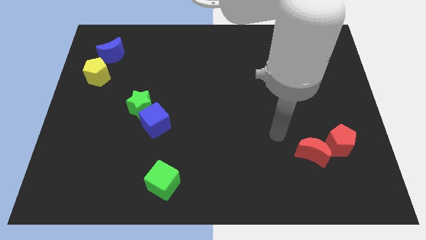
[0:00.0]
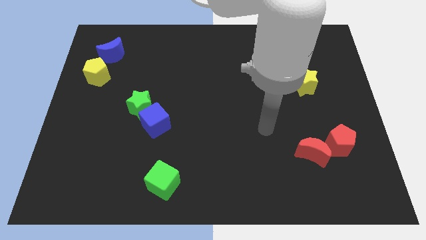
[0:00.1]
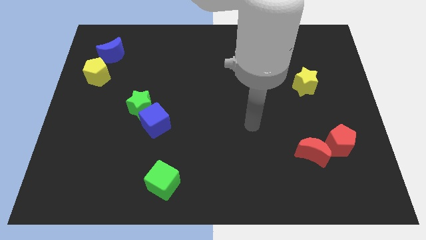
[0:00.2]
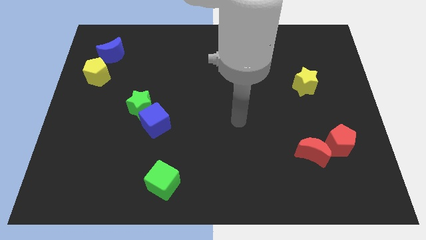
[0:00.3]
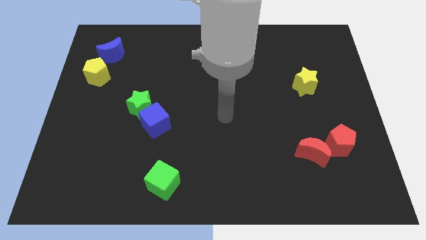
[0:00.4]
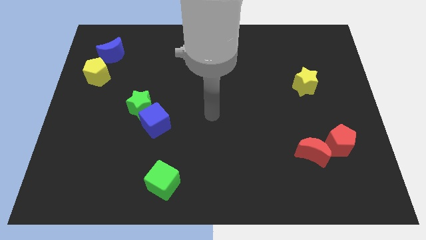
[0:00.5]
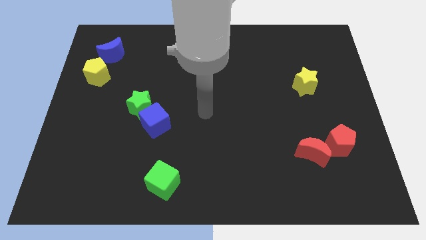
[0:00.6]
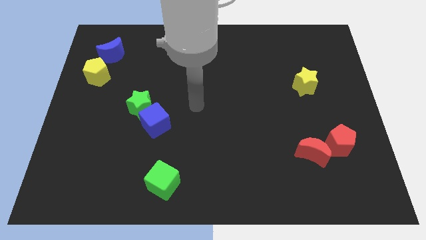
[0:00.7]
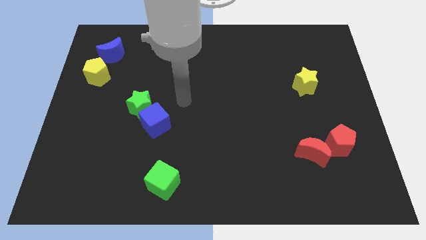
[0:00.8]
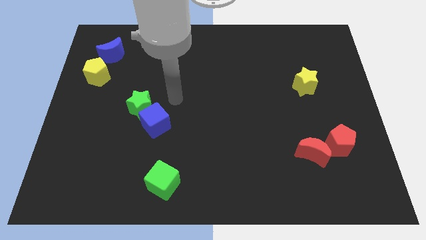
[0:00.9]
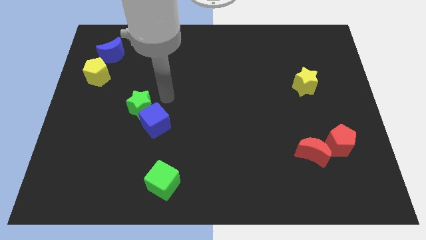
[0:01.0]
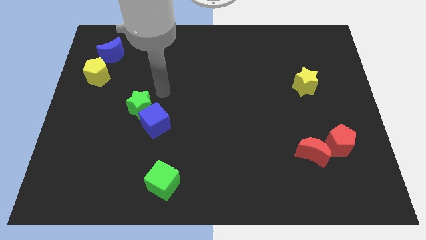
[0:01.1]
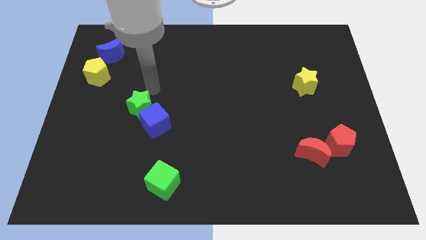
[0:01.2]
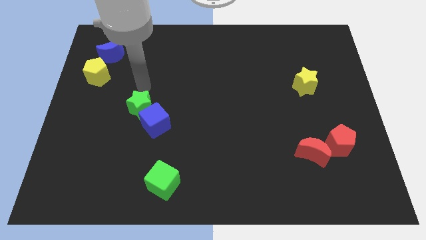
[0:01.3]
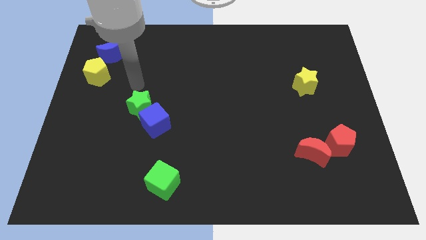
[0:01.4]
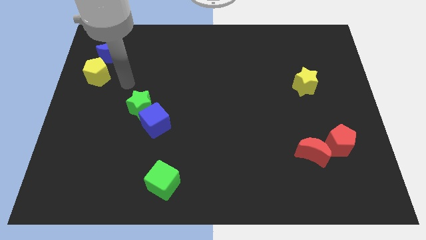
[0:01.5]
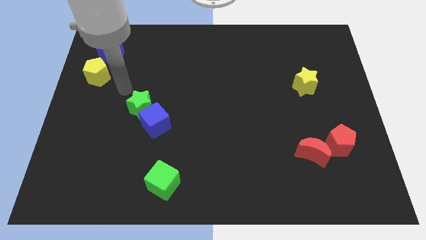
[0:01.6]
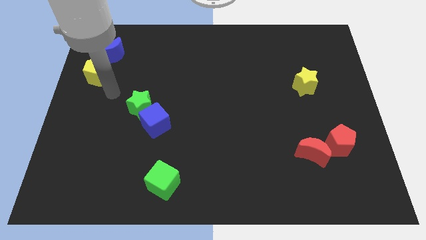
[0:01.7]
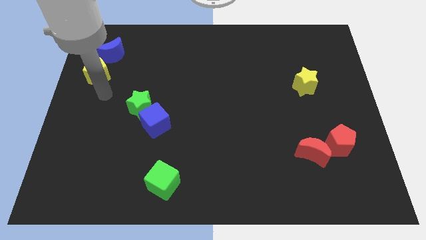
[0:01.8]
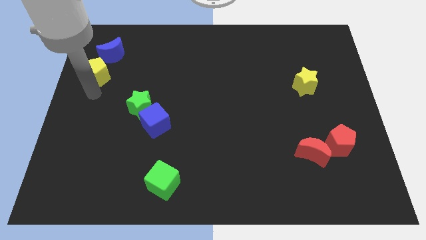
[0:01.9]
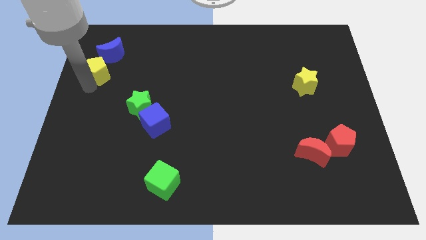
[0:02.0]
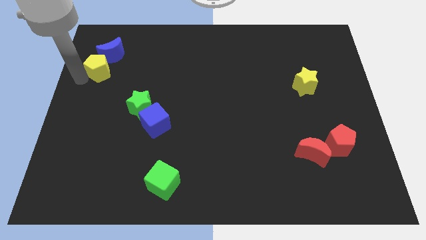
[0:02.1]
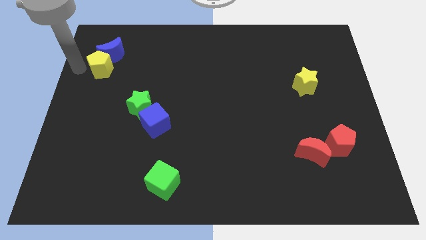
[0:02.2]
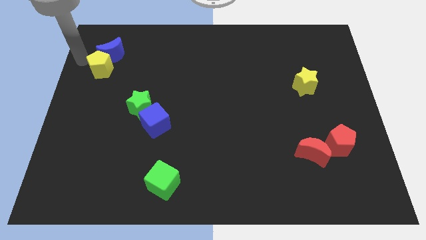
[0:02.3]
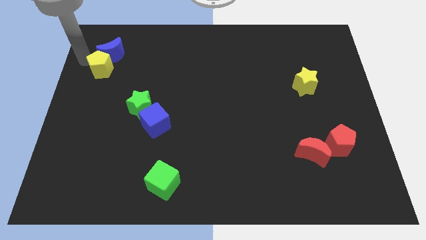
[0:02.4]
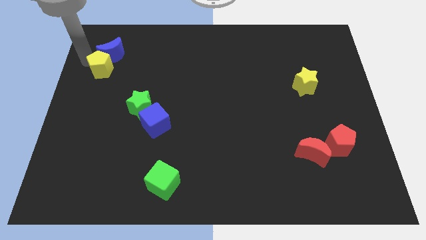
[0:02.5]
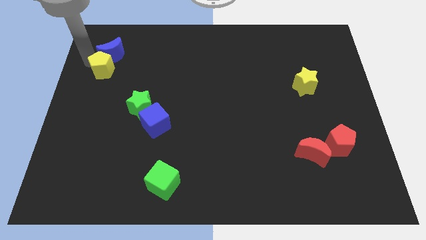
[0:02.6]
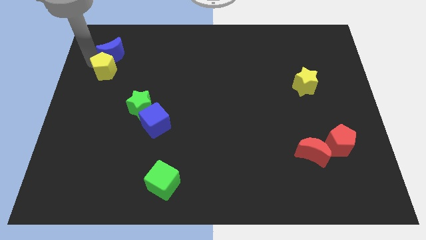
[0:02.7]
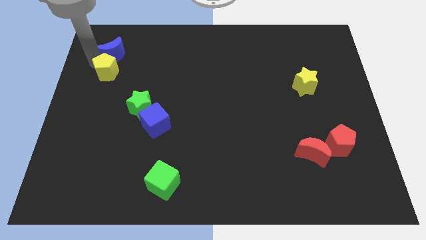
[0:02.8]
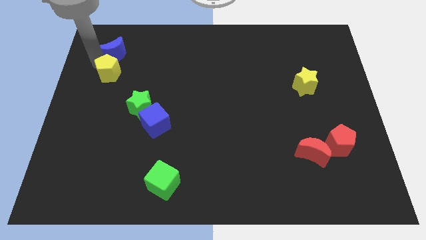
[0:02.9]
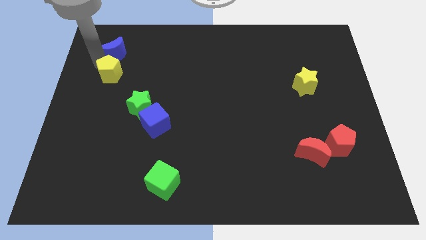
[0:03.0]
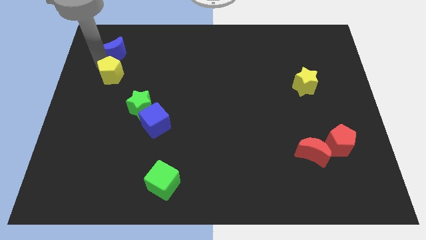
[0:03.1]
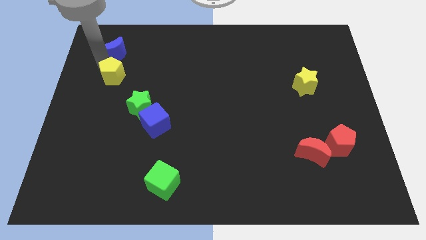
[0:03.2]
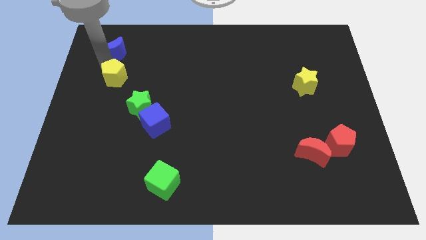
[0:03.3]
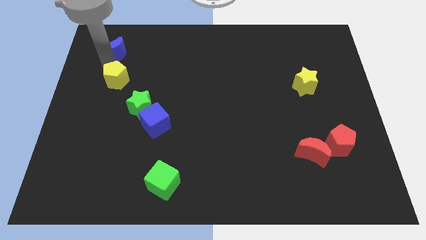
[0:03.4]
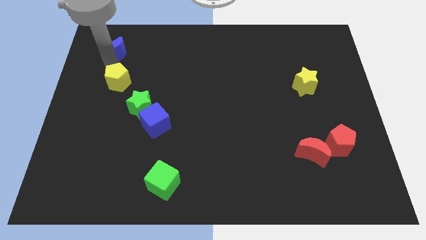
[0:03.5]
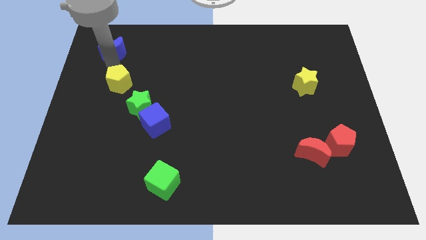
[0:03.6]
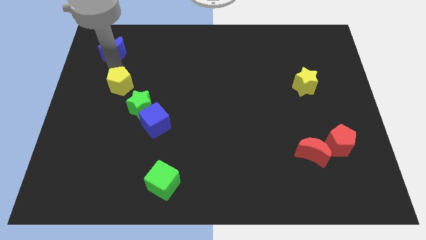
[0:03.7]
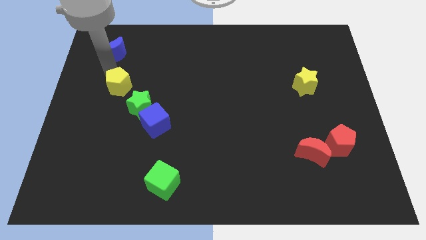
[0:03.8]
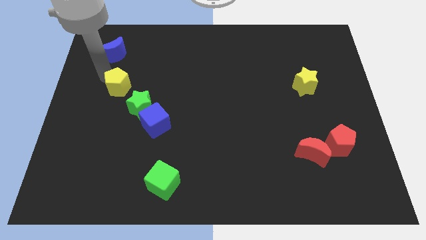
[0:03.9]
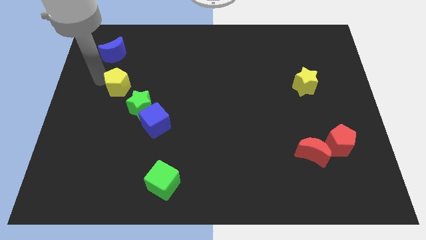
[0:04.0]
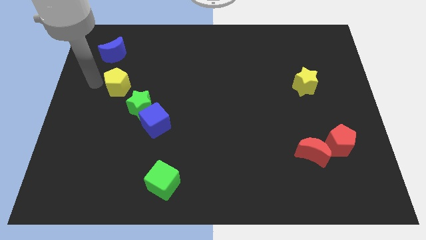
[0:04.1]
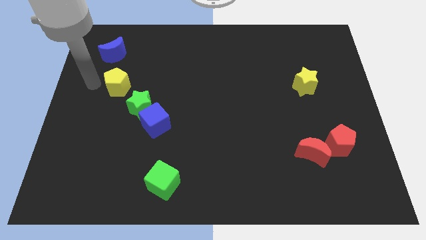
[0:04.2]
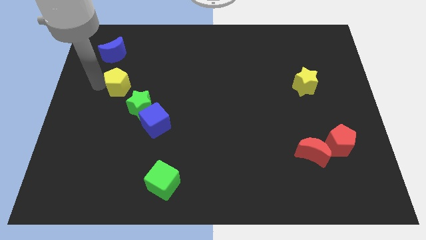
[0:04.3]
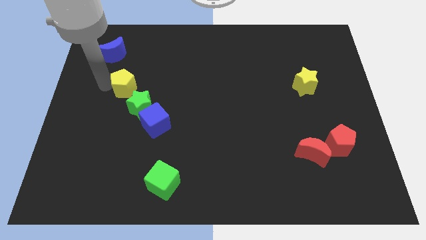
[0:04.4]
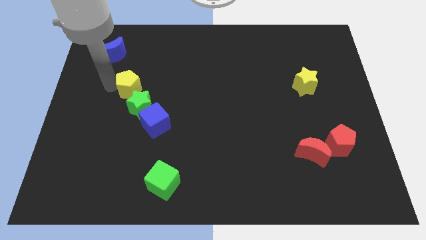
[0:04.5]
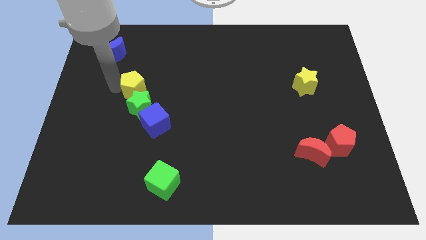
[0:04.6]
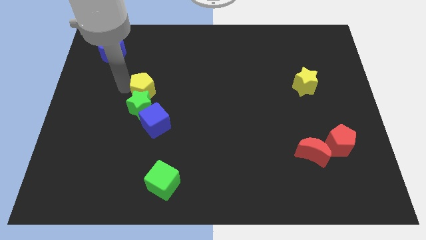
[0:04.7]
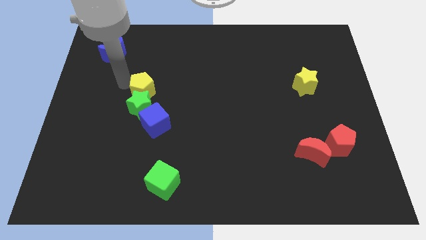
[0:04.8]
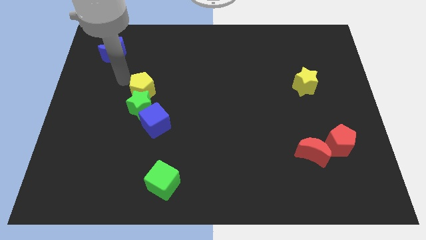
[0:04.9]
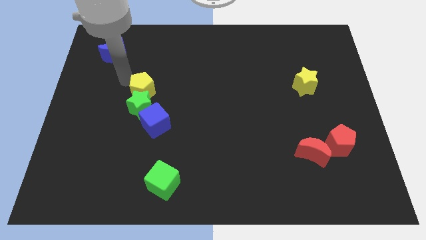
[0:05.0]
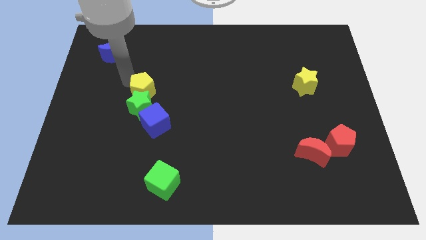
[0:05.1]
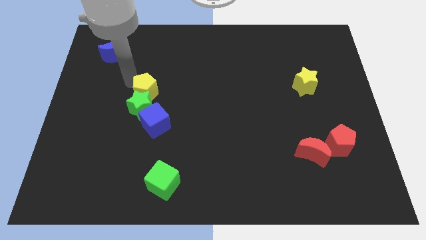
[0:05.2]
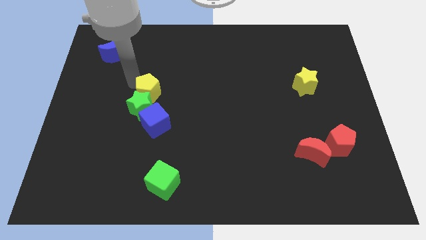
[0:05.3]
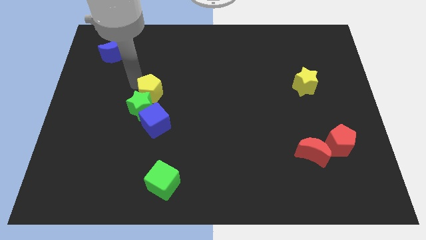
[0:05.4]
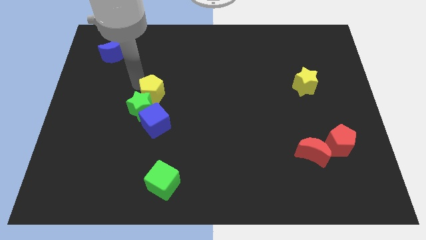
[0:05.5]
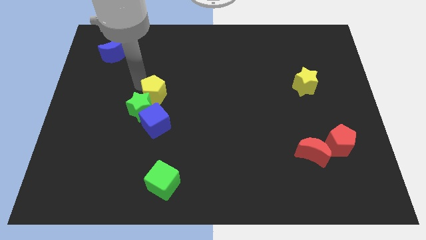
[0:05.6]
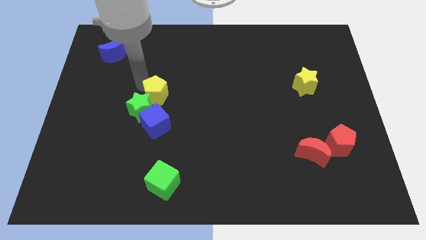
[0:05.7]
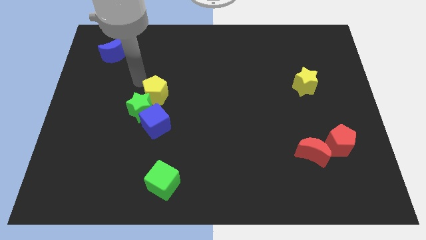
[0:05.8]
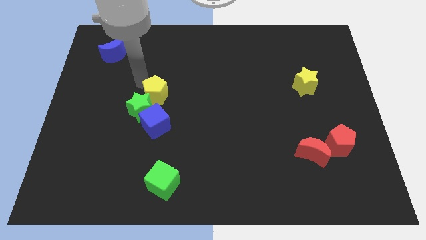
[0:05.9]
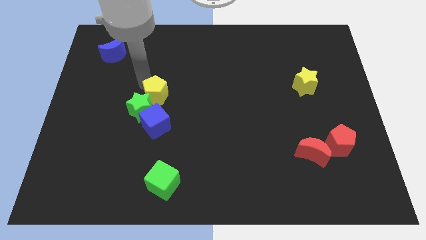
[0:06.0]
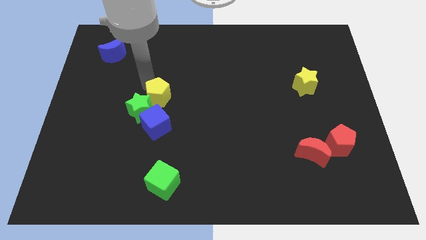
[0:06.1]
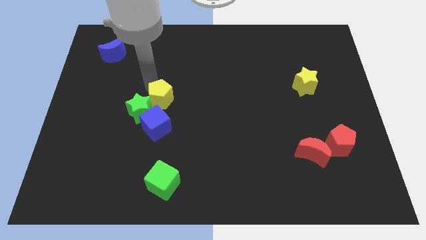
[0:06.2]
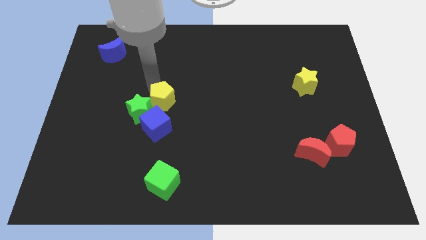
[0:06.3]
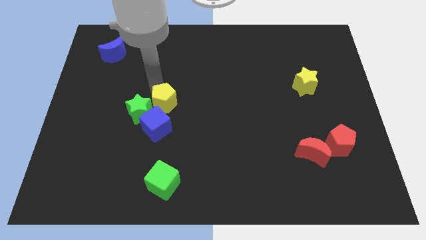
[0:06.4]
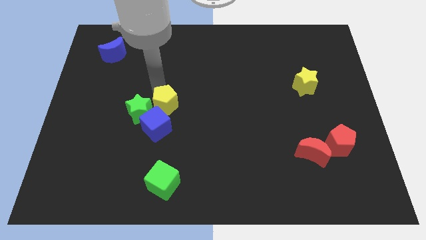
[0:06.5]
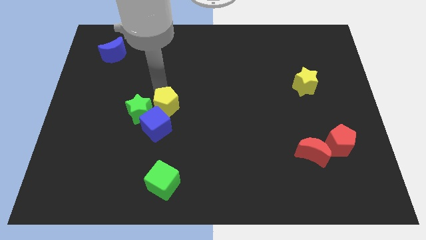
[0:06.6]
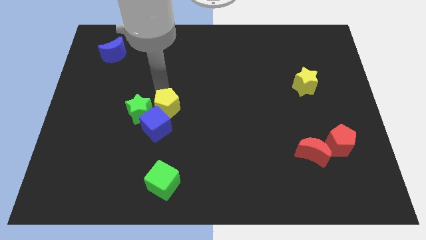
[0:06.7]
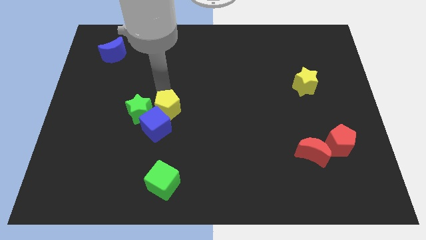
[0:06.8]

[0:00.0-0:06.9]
slide the yellow pentagon to the bottom right of the green star
